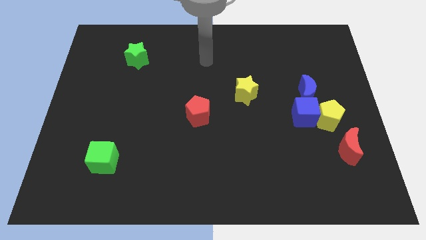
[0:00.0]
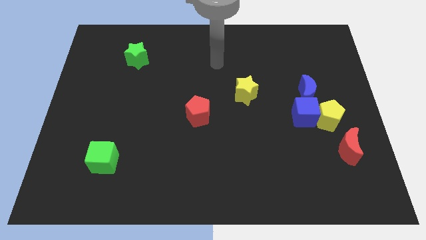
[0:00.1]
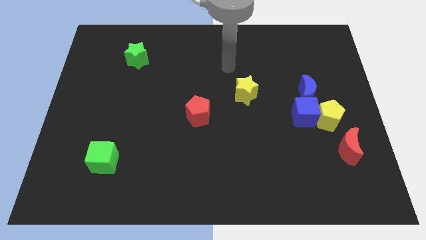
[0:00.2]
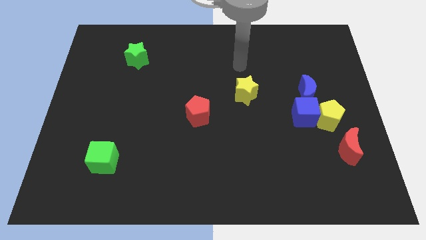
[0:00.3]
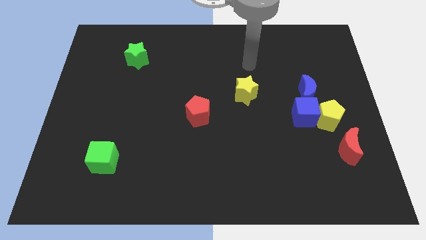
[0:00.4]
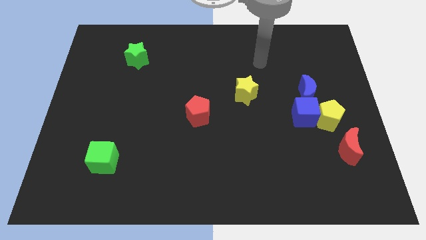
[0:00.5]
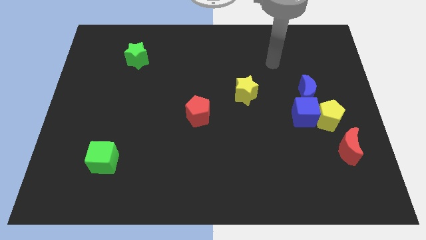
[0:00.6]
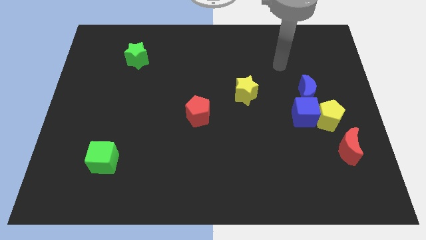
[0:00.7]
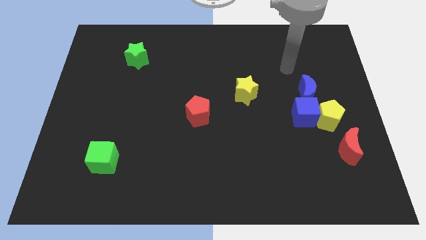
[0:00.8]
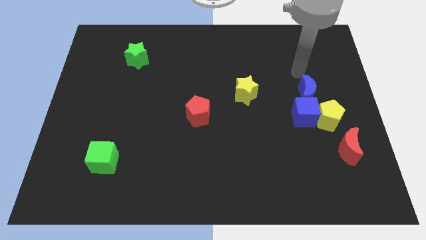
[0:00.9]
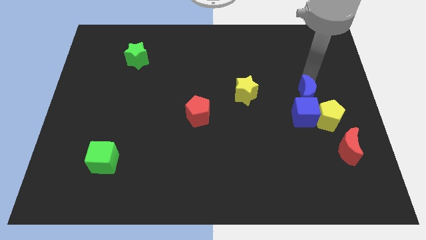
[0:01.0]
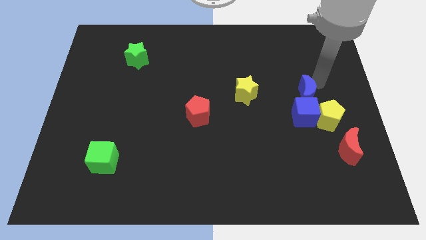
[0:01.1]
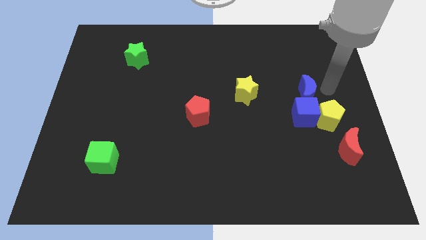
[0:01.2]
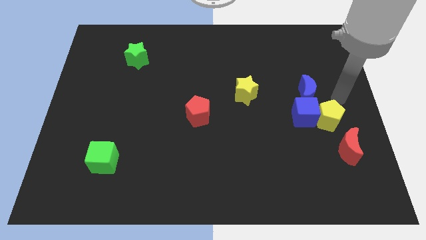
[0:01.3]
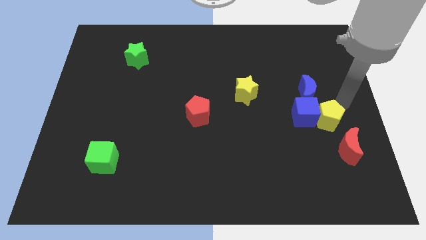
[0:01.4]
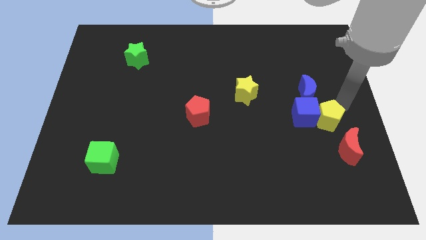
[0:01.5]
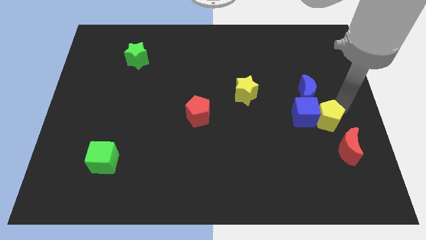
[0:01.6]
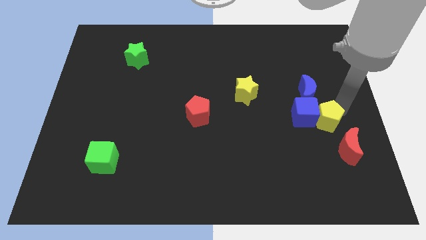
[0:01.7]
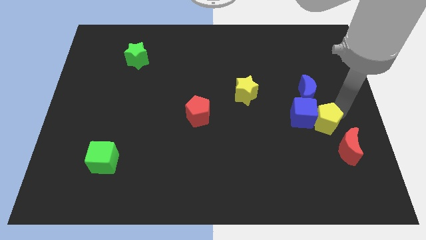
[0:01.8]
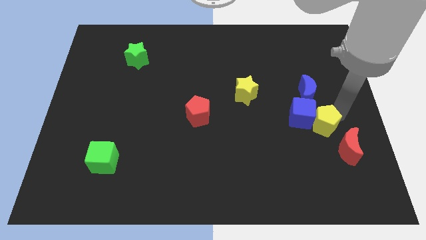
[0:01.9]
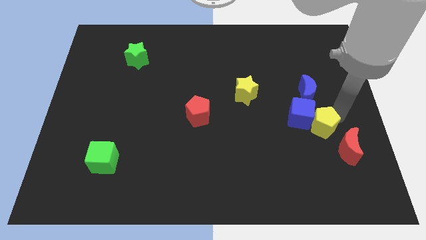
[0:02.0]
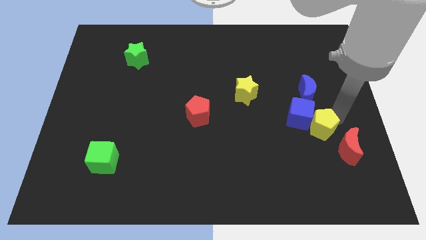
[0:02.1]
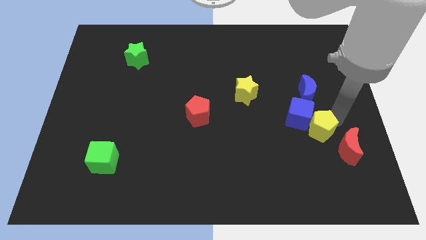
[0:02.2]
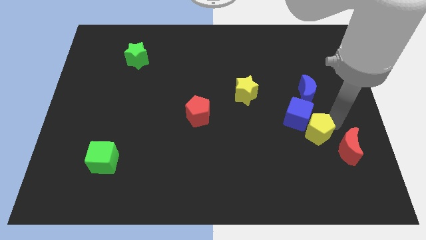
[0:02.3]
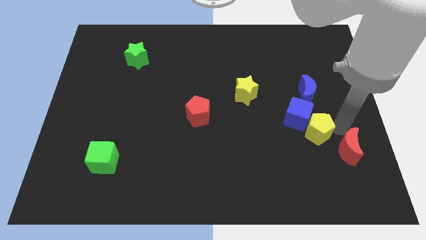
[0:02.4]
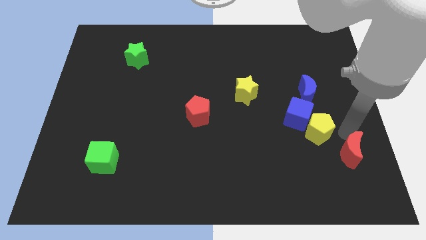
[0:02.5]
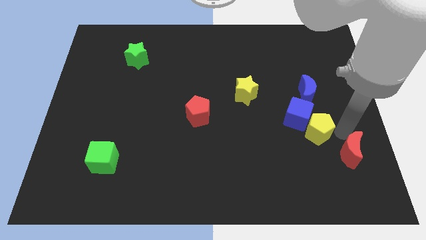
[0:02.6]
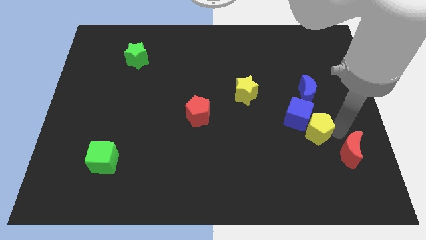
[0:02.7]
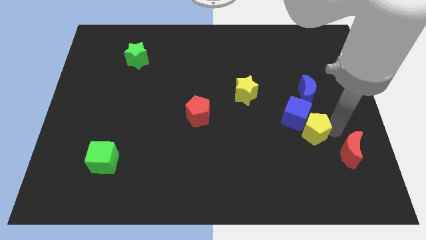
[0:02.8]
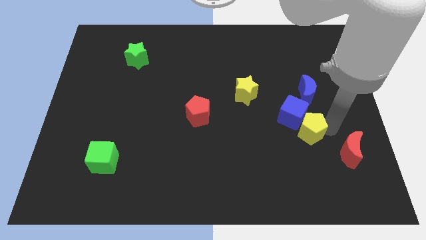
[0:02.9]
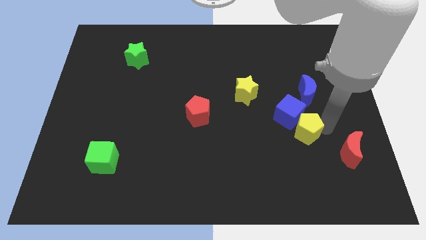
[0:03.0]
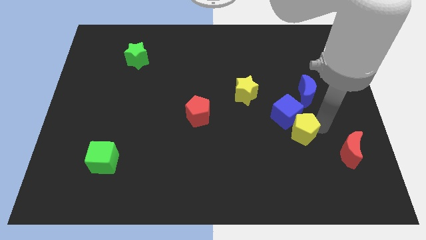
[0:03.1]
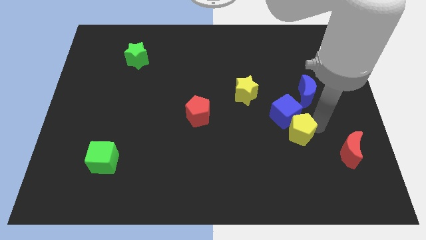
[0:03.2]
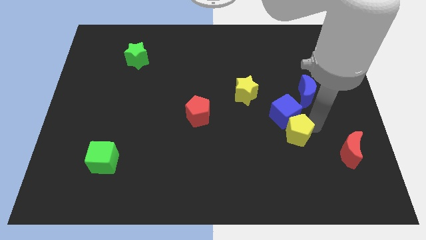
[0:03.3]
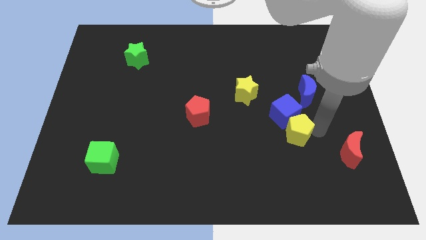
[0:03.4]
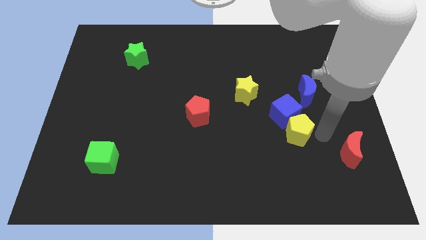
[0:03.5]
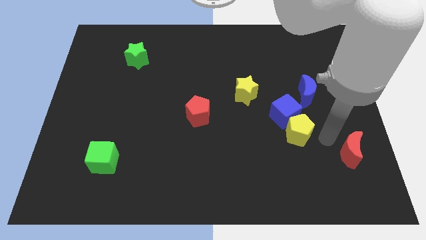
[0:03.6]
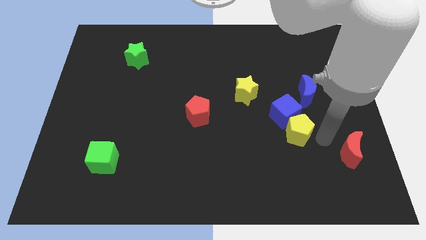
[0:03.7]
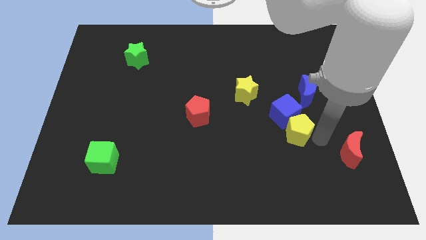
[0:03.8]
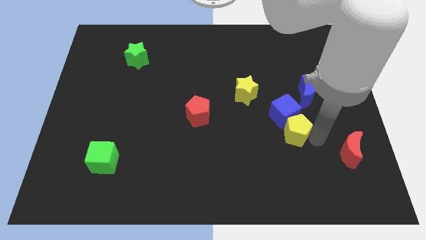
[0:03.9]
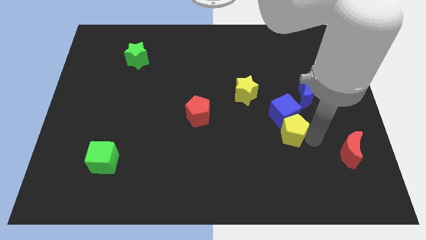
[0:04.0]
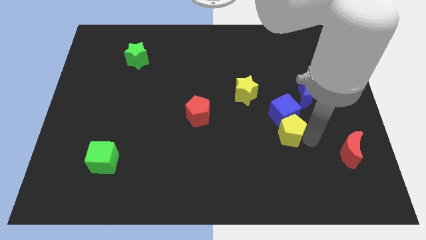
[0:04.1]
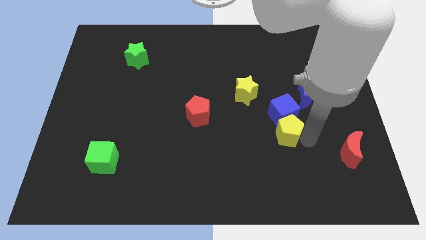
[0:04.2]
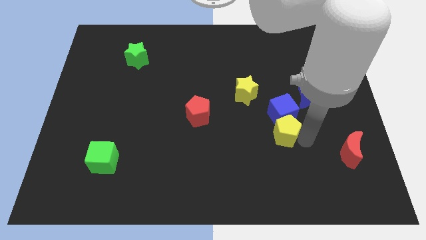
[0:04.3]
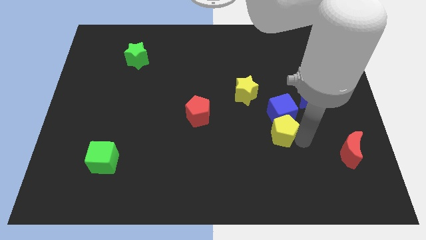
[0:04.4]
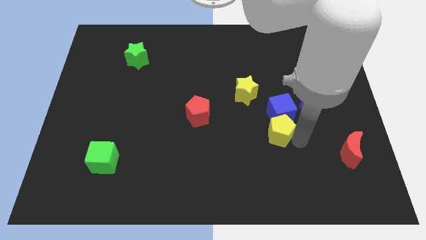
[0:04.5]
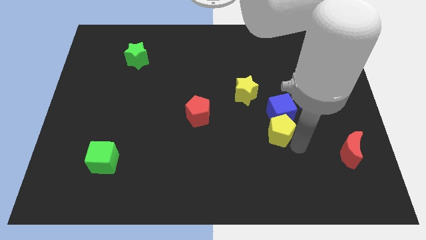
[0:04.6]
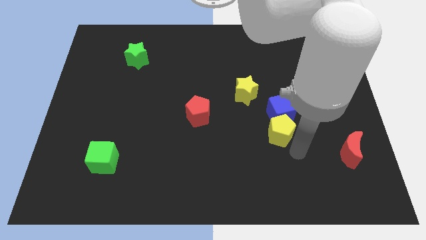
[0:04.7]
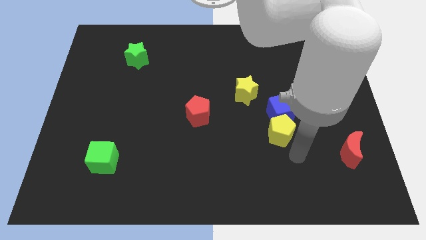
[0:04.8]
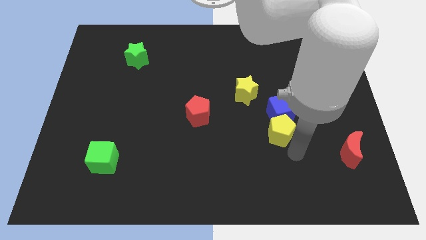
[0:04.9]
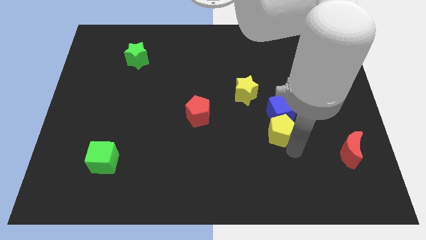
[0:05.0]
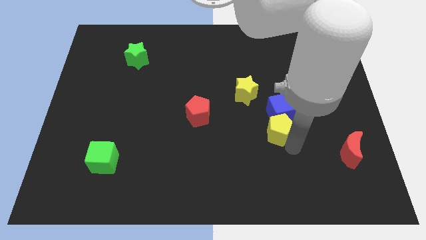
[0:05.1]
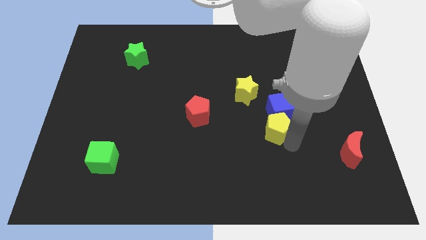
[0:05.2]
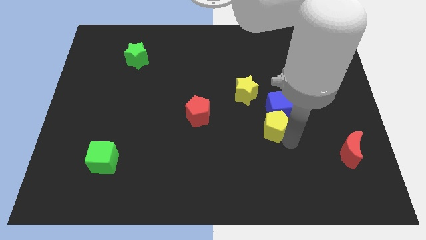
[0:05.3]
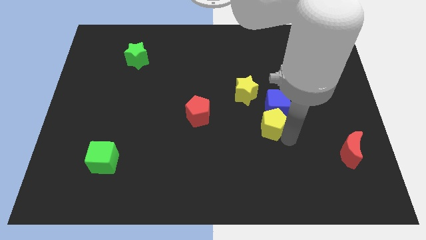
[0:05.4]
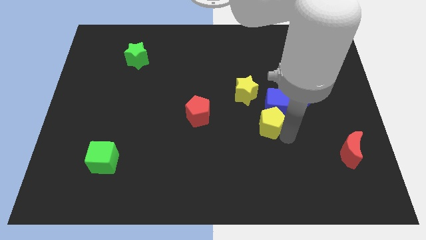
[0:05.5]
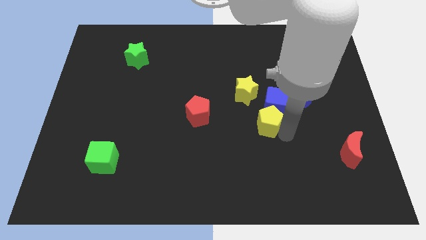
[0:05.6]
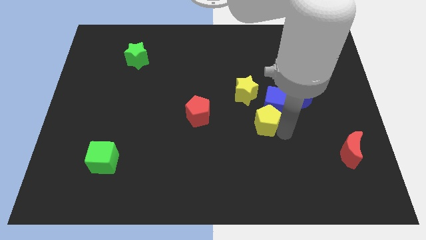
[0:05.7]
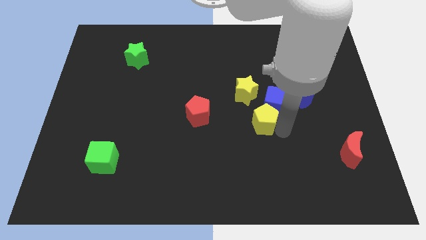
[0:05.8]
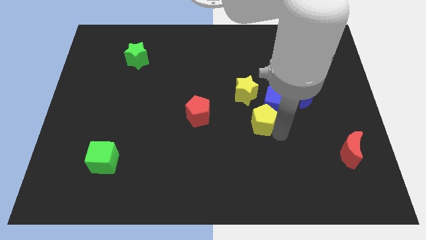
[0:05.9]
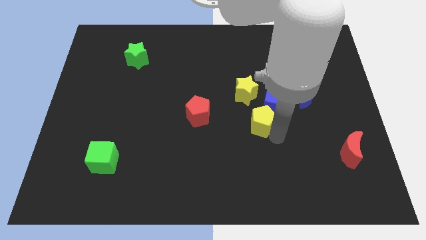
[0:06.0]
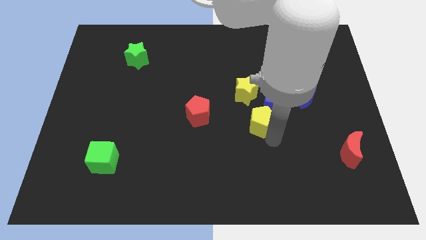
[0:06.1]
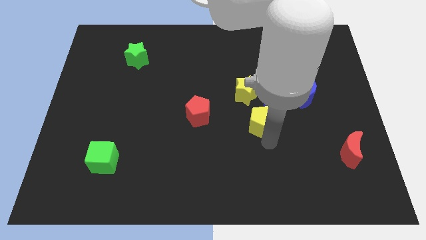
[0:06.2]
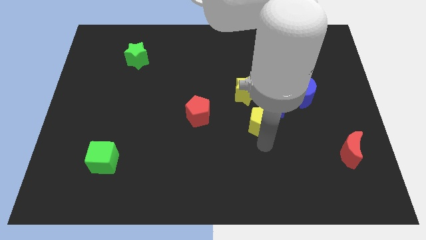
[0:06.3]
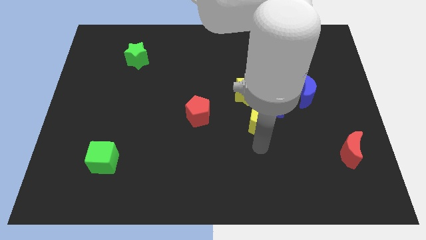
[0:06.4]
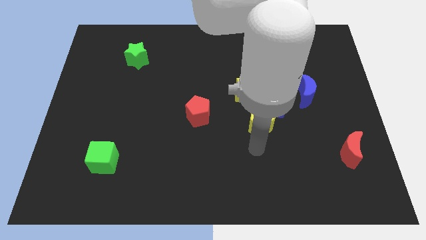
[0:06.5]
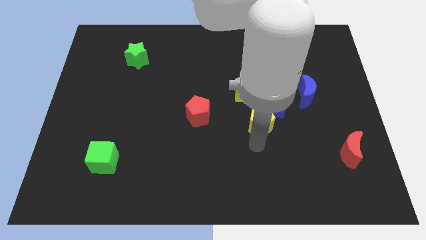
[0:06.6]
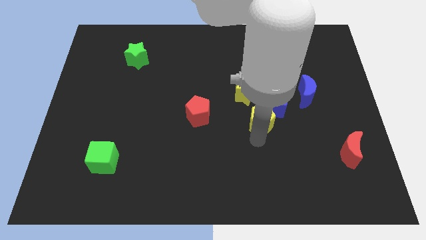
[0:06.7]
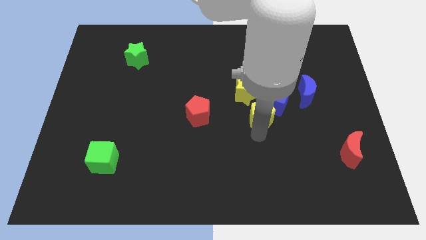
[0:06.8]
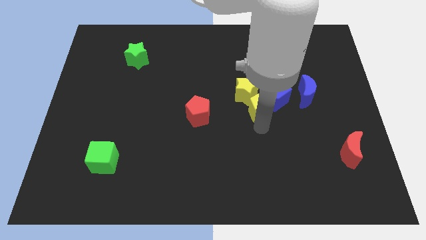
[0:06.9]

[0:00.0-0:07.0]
move the yellow pentagon next to the yellow star
